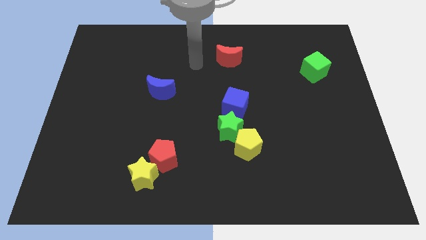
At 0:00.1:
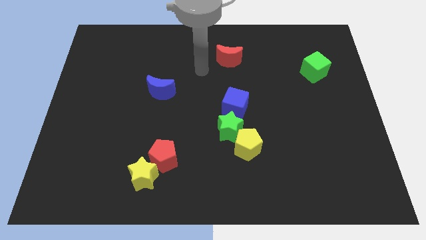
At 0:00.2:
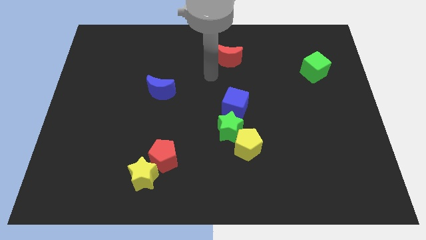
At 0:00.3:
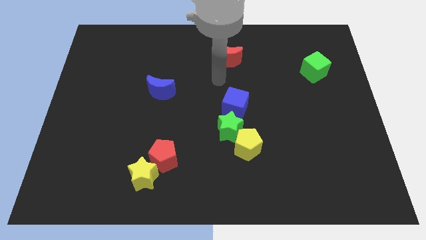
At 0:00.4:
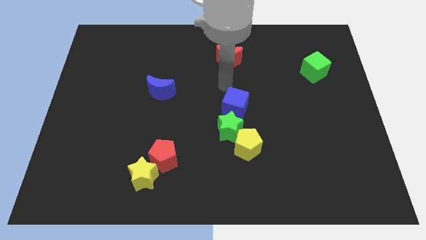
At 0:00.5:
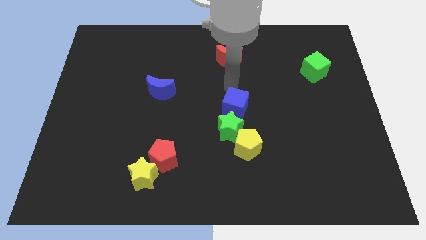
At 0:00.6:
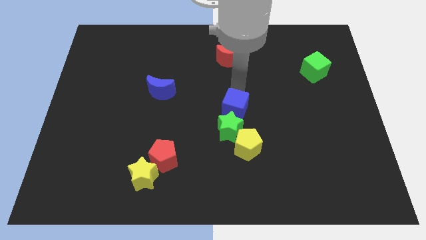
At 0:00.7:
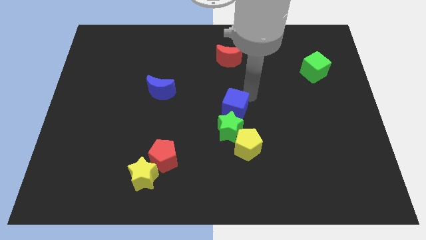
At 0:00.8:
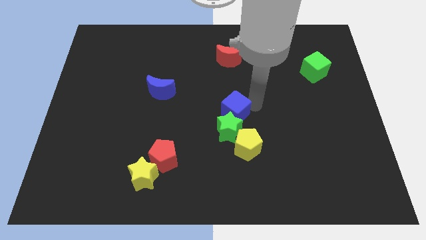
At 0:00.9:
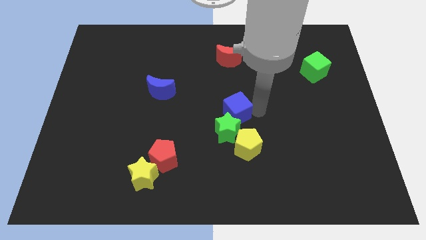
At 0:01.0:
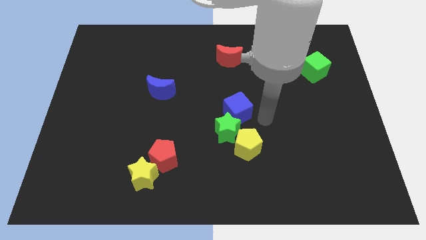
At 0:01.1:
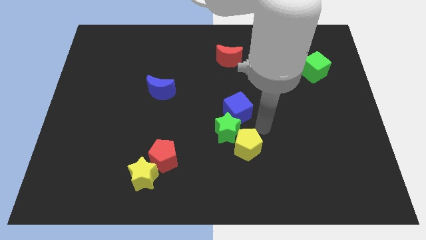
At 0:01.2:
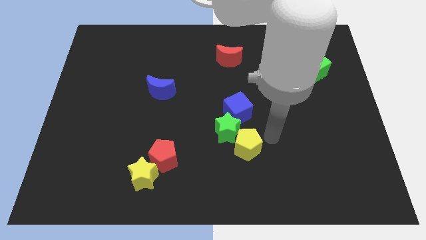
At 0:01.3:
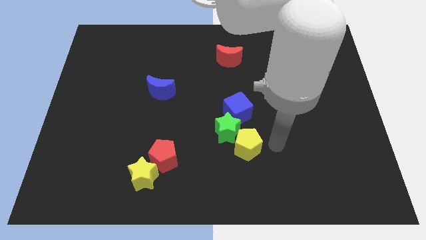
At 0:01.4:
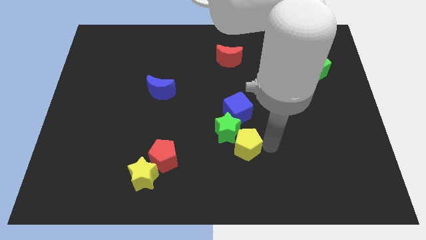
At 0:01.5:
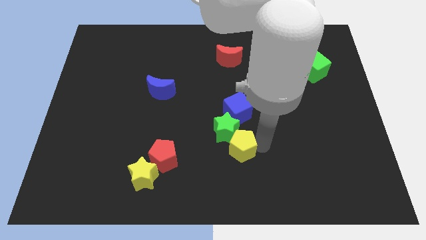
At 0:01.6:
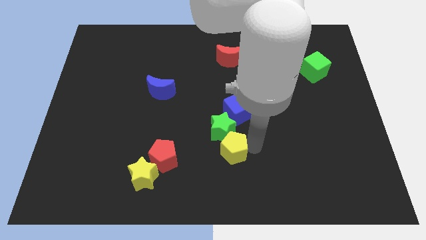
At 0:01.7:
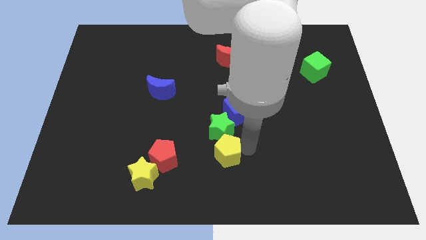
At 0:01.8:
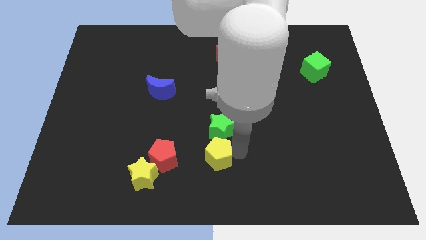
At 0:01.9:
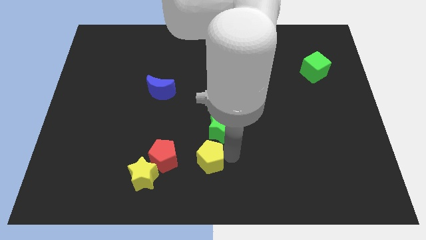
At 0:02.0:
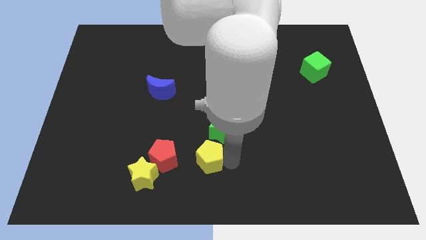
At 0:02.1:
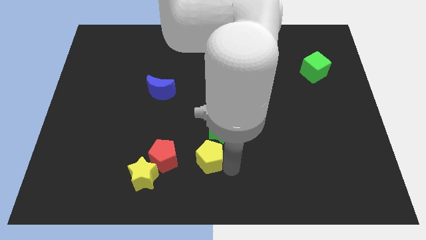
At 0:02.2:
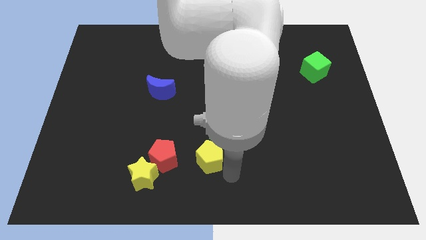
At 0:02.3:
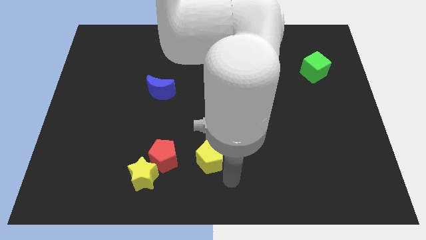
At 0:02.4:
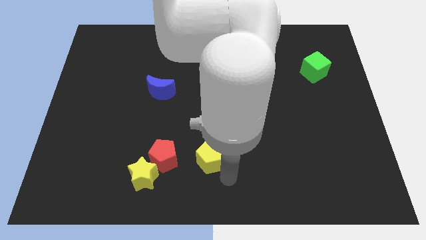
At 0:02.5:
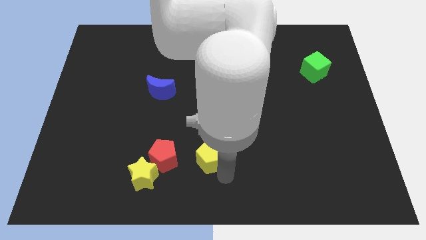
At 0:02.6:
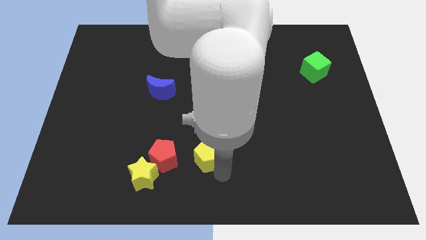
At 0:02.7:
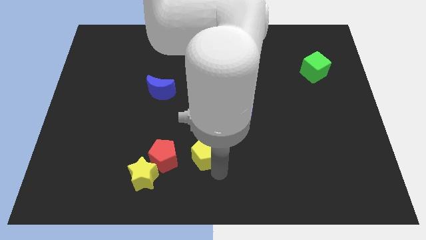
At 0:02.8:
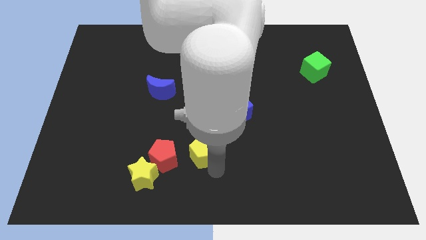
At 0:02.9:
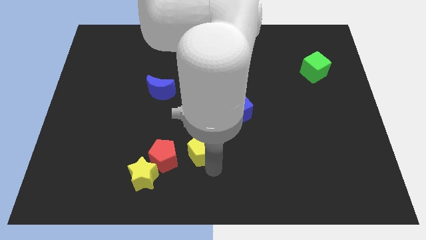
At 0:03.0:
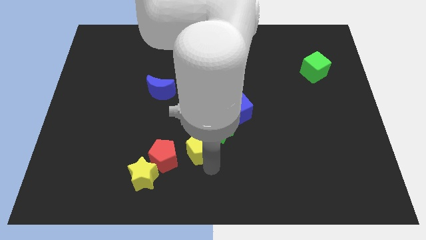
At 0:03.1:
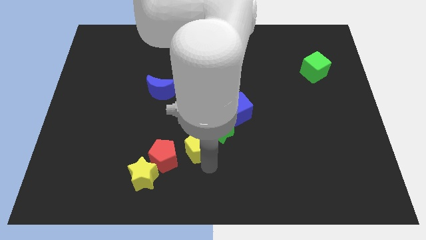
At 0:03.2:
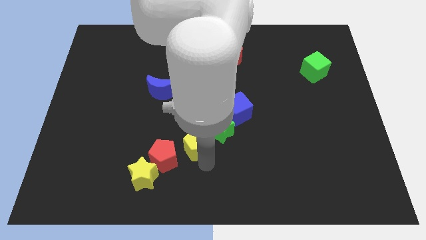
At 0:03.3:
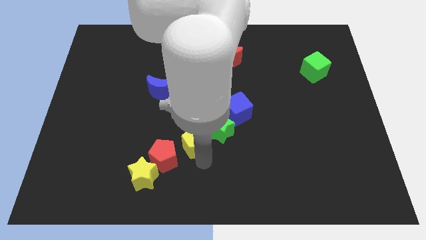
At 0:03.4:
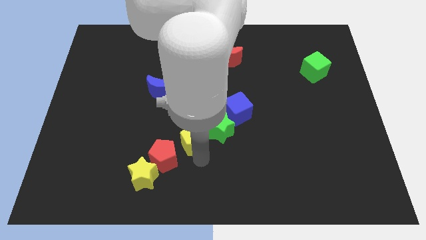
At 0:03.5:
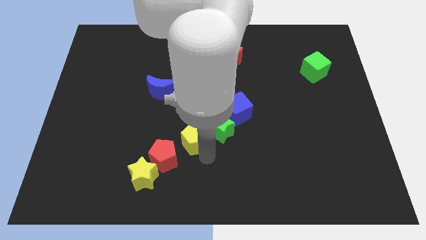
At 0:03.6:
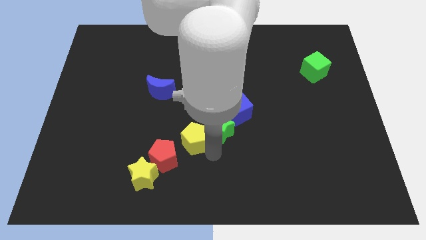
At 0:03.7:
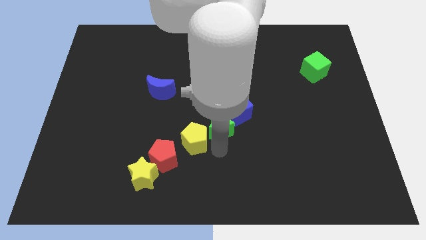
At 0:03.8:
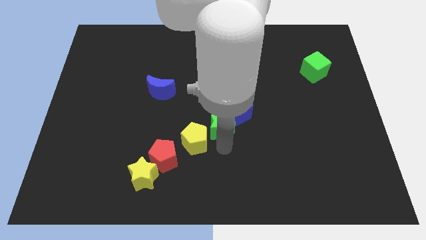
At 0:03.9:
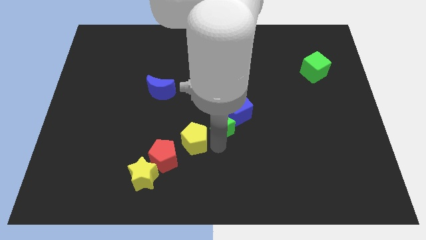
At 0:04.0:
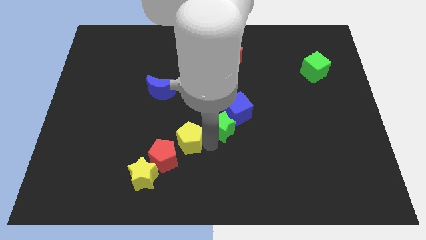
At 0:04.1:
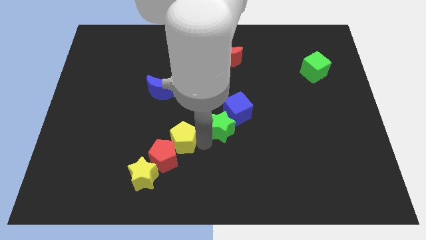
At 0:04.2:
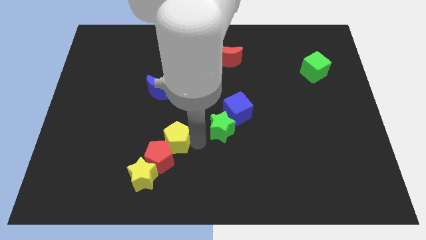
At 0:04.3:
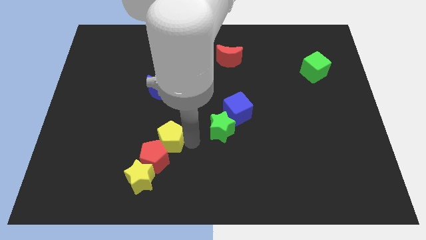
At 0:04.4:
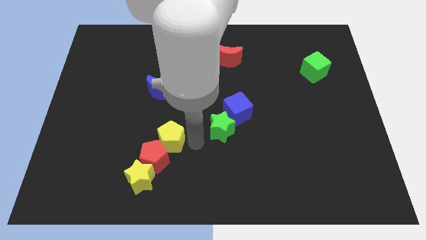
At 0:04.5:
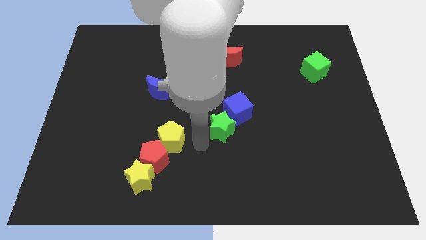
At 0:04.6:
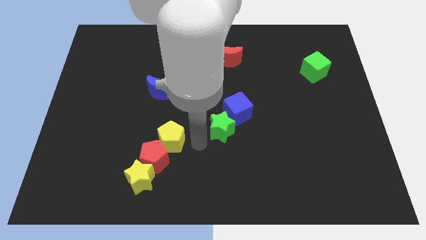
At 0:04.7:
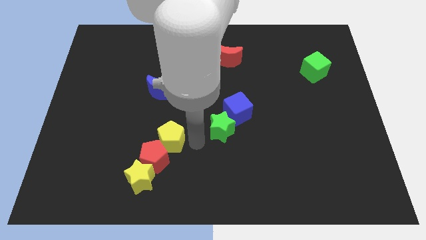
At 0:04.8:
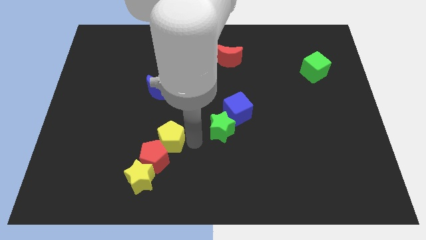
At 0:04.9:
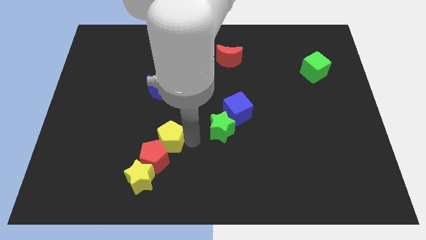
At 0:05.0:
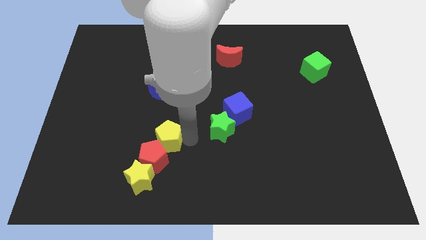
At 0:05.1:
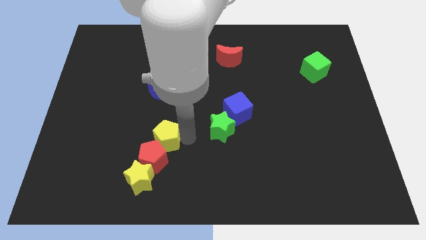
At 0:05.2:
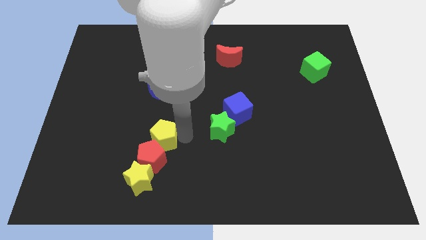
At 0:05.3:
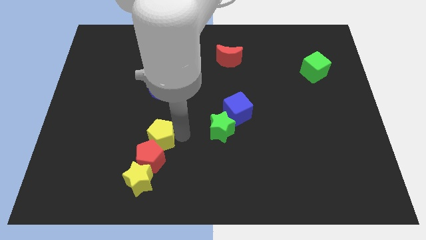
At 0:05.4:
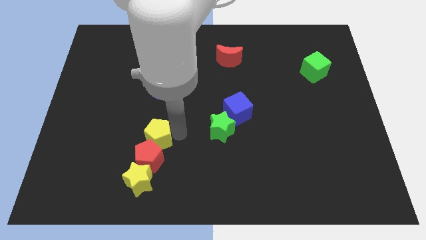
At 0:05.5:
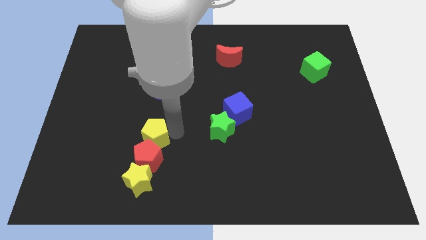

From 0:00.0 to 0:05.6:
push the yellow pentagon to the left

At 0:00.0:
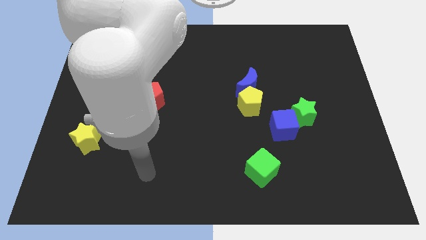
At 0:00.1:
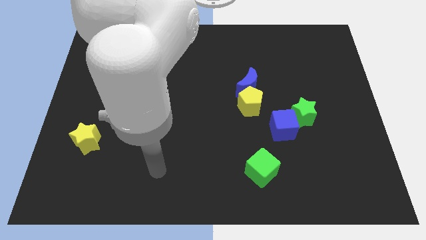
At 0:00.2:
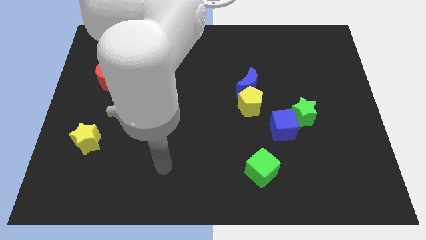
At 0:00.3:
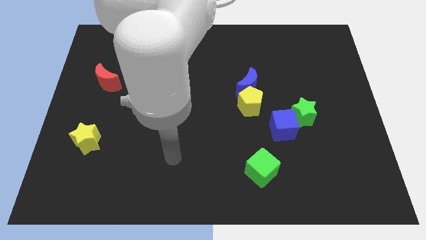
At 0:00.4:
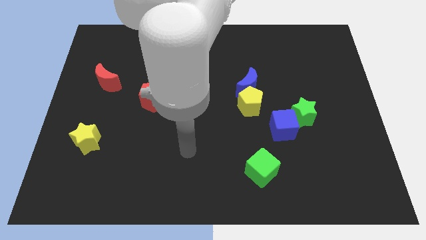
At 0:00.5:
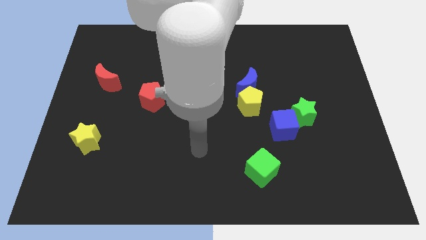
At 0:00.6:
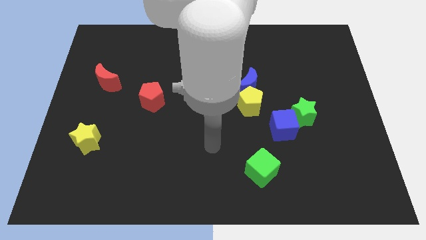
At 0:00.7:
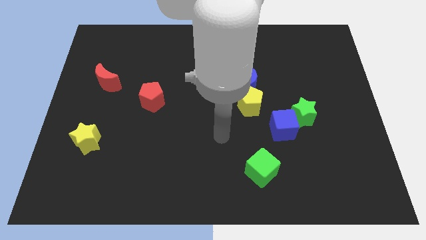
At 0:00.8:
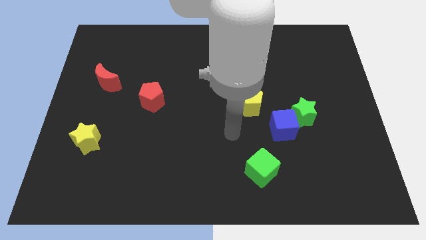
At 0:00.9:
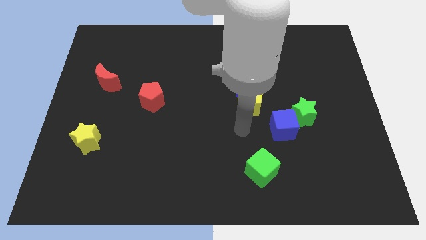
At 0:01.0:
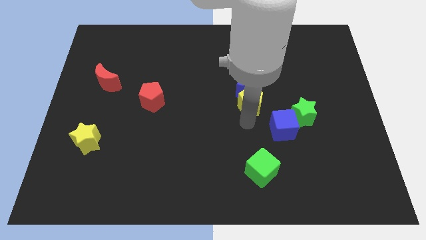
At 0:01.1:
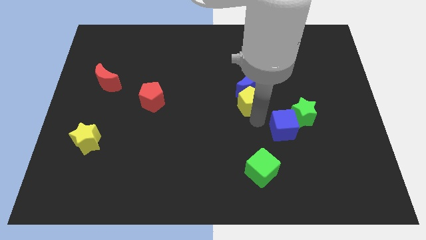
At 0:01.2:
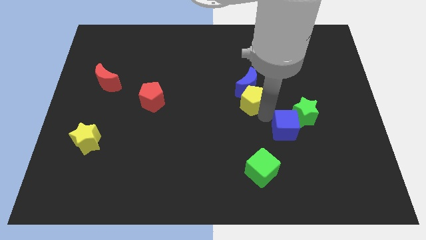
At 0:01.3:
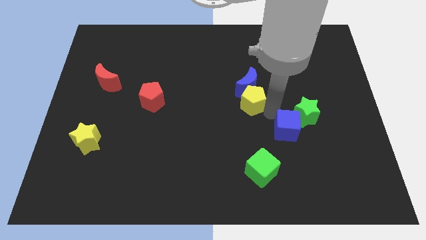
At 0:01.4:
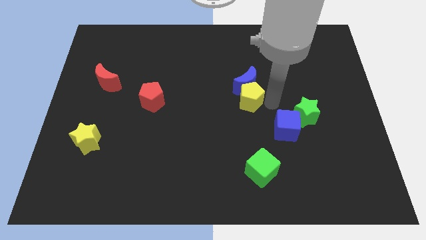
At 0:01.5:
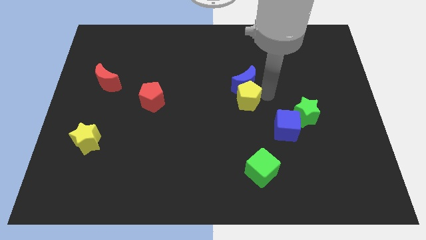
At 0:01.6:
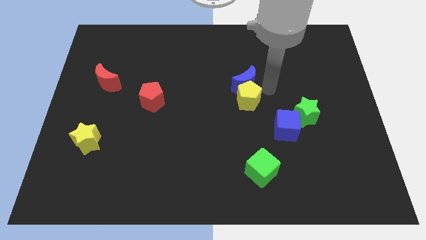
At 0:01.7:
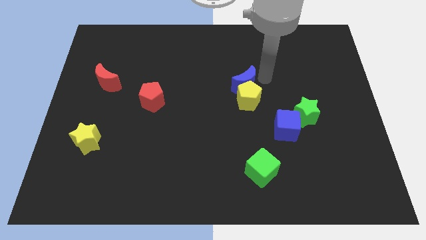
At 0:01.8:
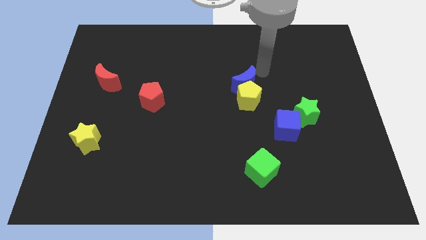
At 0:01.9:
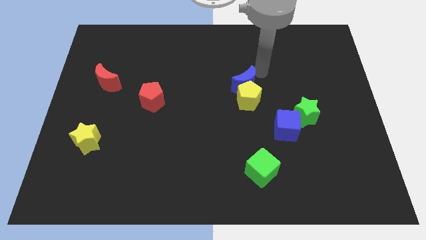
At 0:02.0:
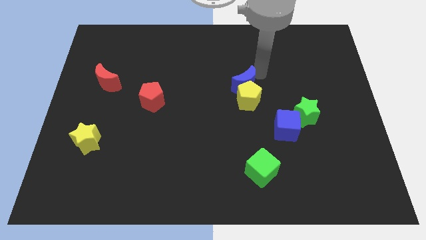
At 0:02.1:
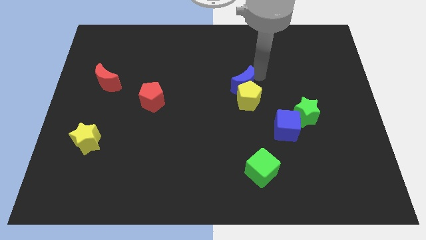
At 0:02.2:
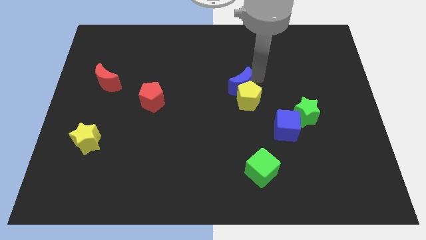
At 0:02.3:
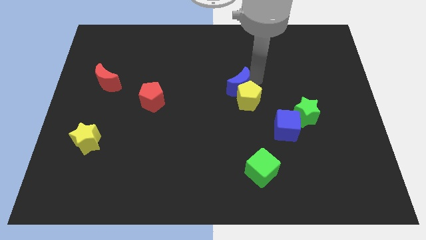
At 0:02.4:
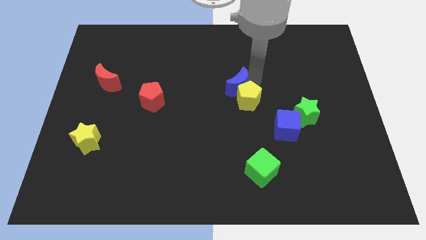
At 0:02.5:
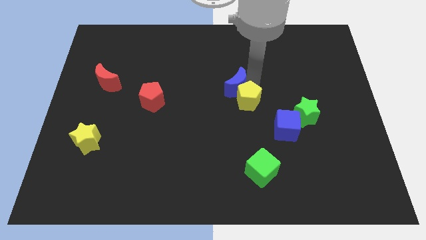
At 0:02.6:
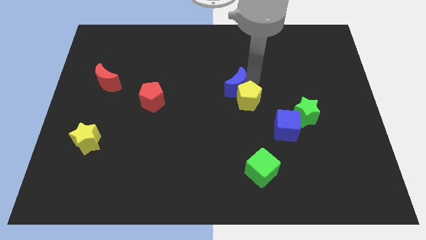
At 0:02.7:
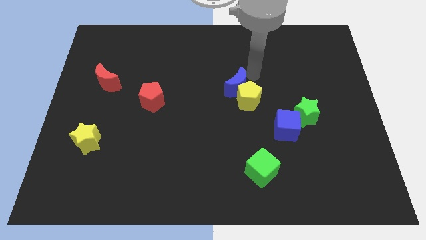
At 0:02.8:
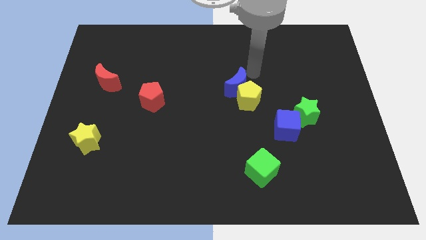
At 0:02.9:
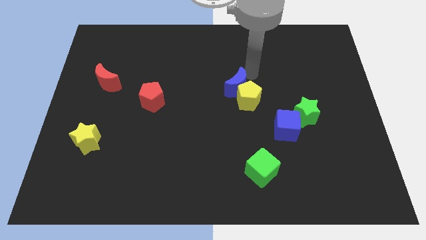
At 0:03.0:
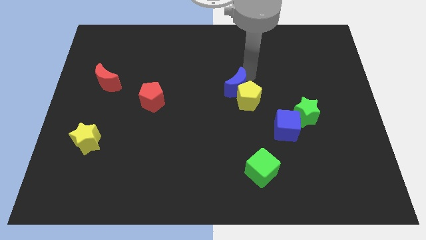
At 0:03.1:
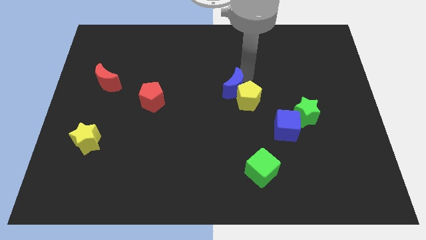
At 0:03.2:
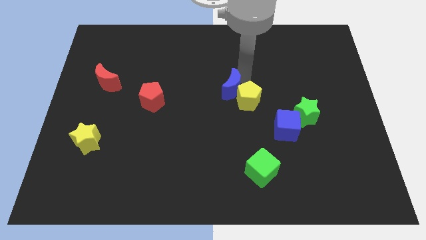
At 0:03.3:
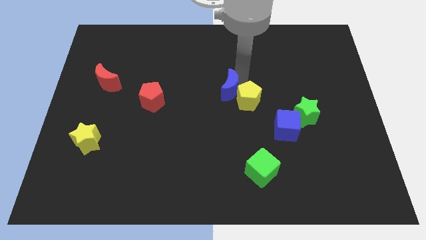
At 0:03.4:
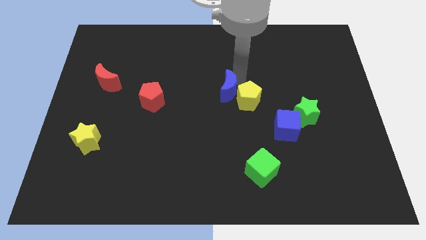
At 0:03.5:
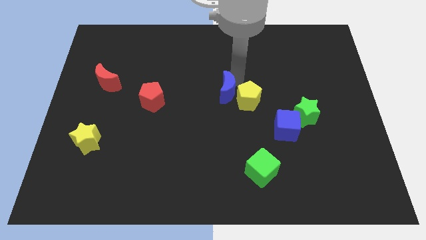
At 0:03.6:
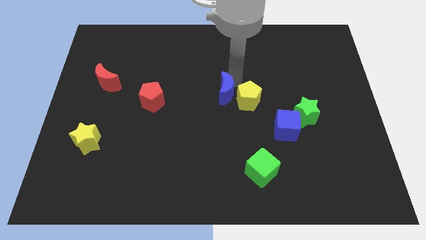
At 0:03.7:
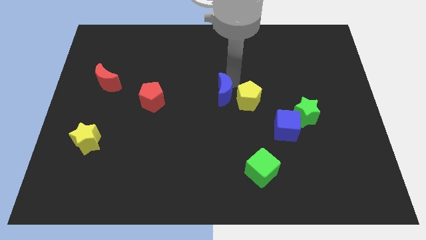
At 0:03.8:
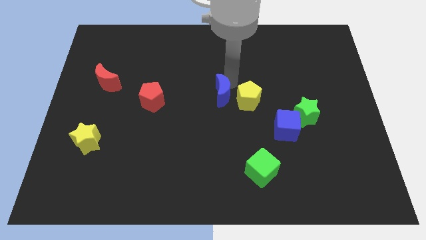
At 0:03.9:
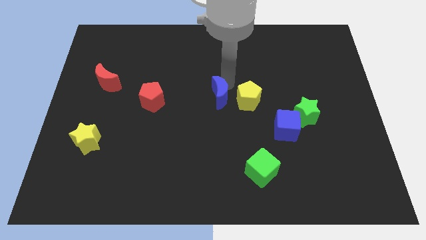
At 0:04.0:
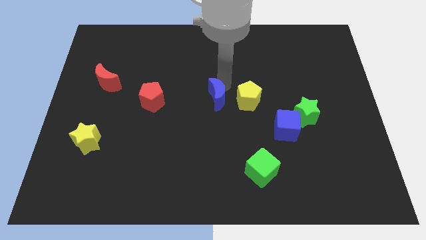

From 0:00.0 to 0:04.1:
move the blue moon slightly diagonally downwards and to the left
